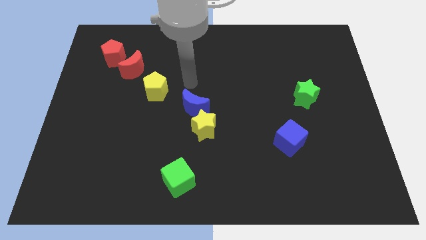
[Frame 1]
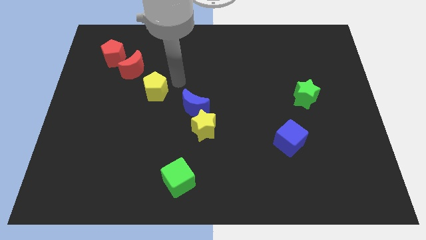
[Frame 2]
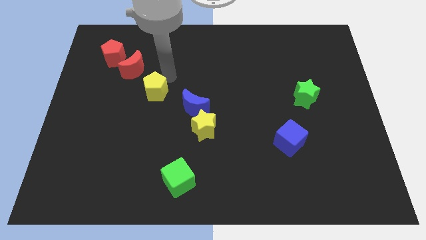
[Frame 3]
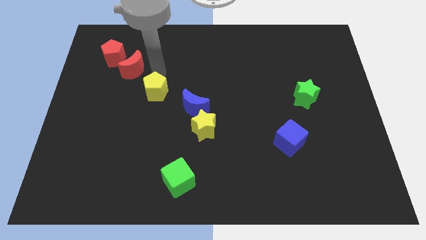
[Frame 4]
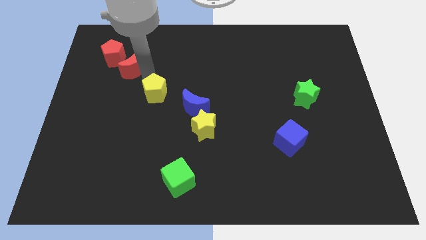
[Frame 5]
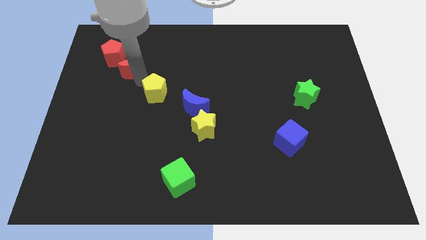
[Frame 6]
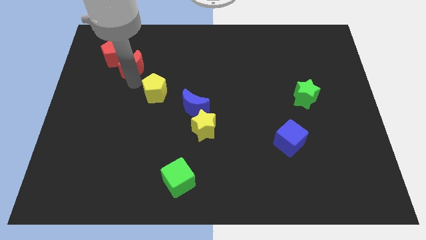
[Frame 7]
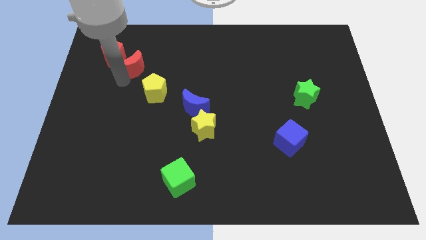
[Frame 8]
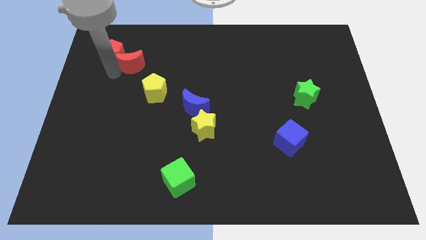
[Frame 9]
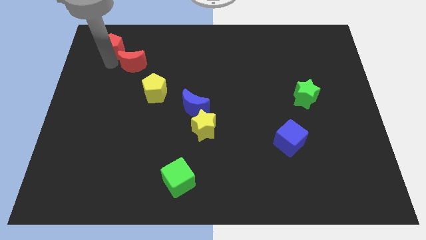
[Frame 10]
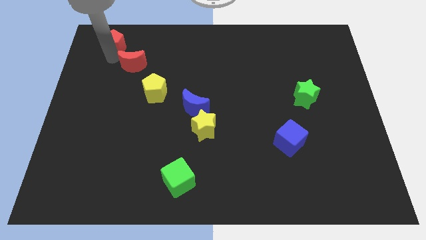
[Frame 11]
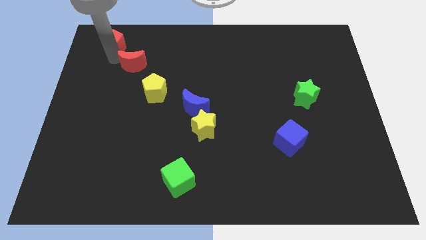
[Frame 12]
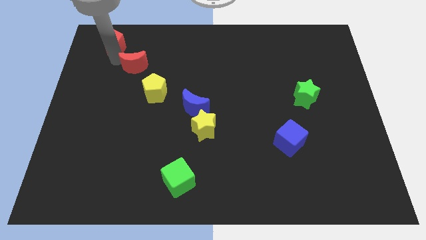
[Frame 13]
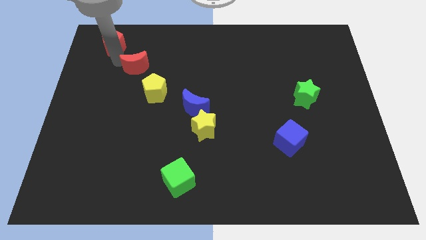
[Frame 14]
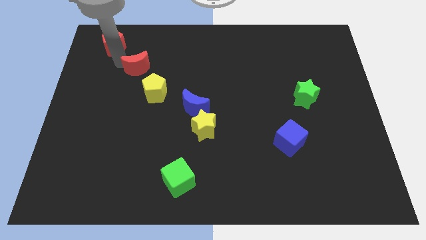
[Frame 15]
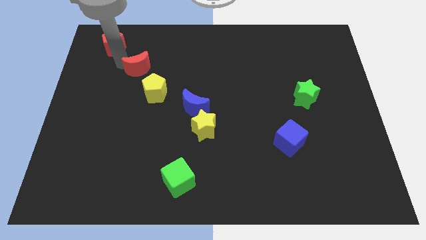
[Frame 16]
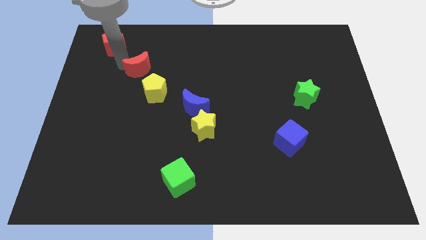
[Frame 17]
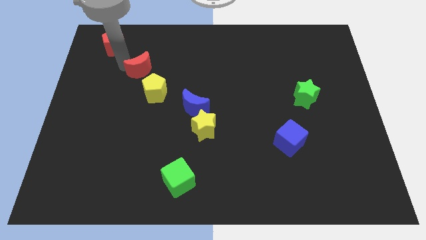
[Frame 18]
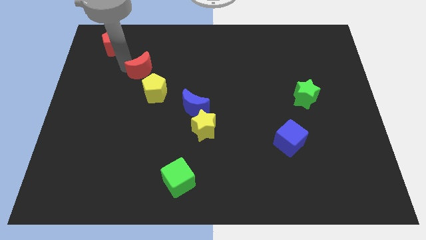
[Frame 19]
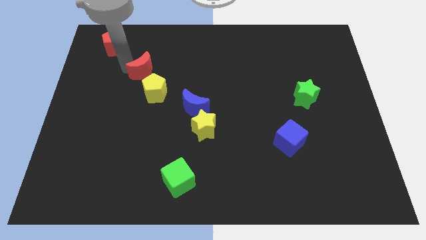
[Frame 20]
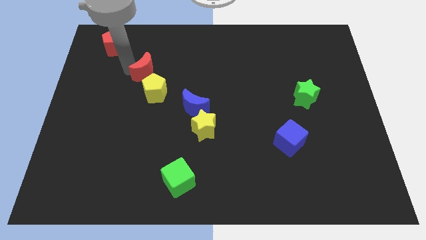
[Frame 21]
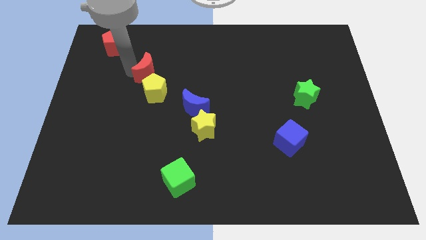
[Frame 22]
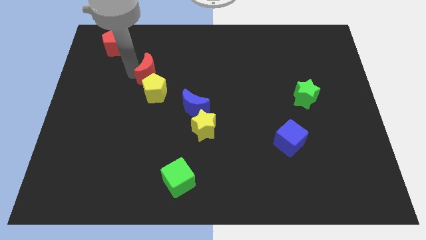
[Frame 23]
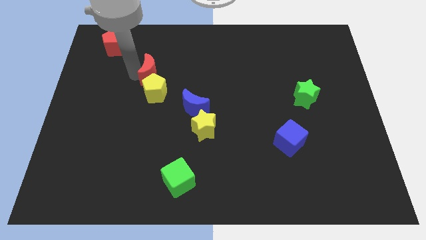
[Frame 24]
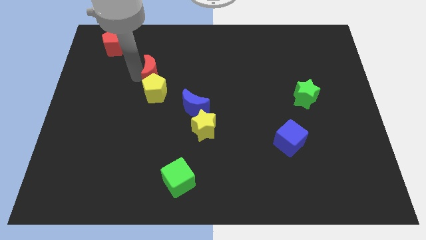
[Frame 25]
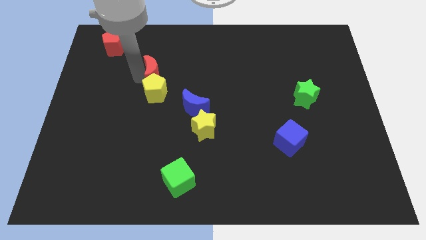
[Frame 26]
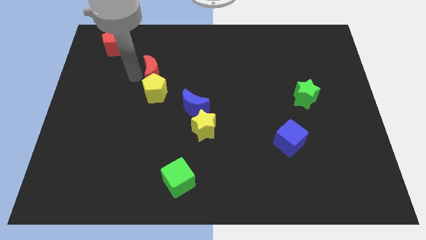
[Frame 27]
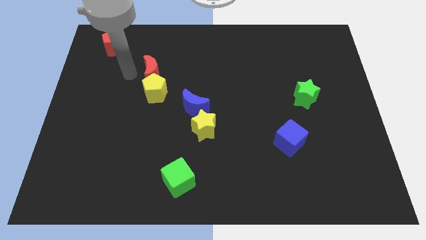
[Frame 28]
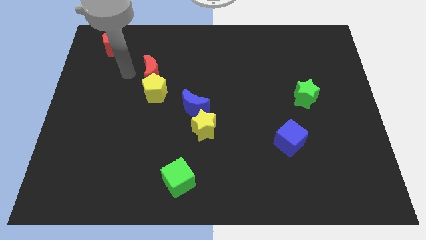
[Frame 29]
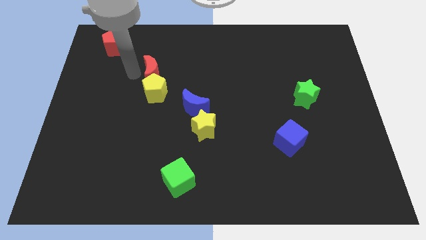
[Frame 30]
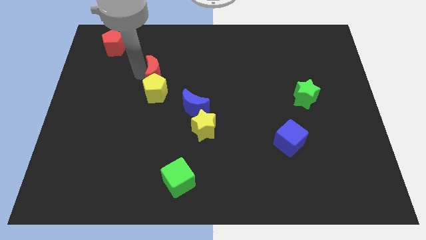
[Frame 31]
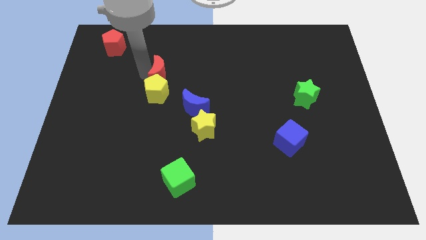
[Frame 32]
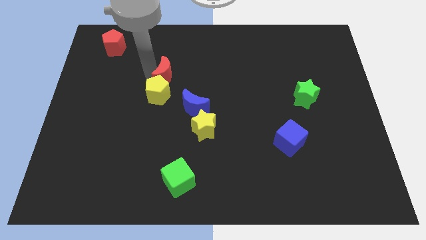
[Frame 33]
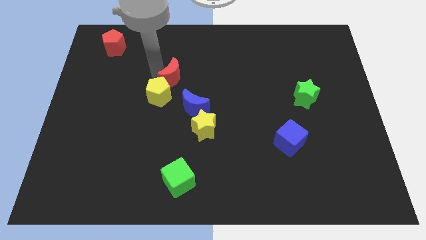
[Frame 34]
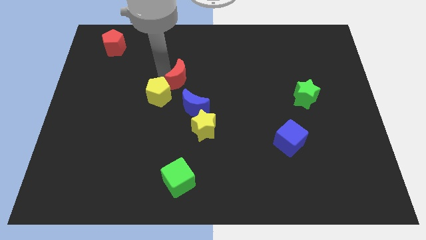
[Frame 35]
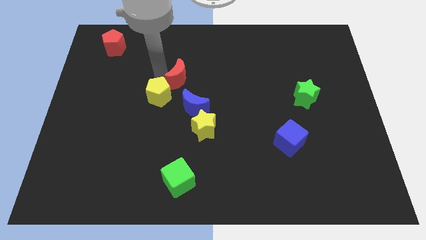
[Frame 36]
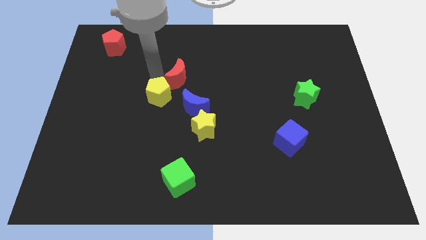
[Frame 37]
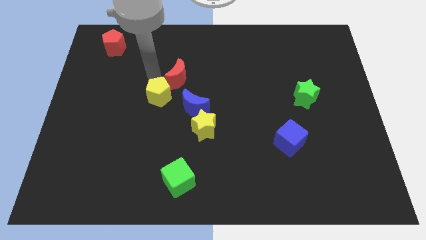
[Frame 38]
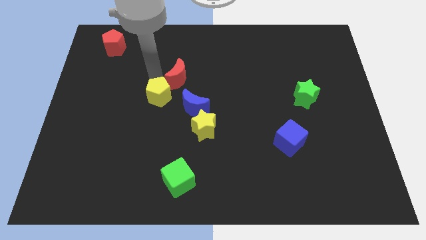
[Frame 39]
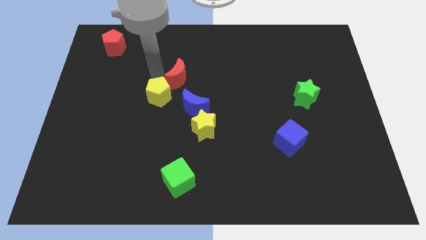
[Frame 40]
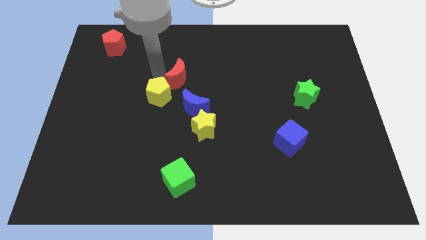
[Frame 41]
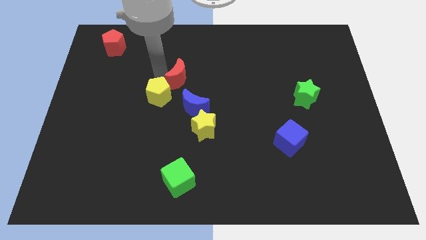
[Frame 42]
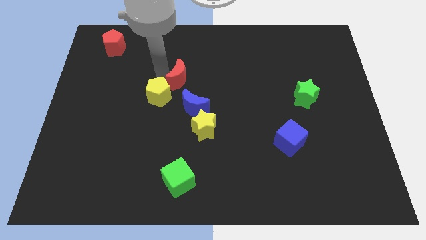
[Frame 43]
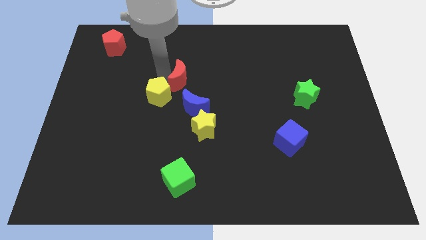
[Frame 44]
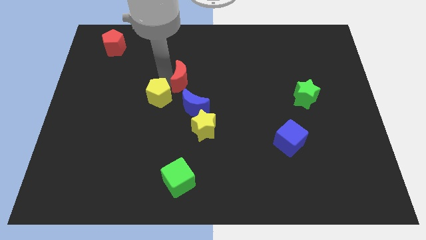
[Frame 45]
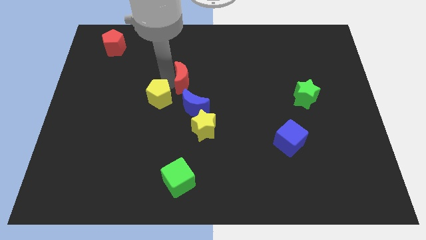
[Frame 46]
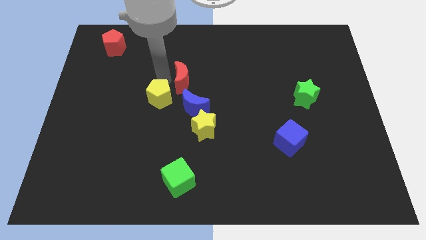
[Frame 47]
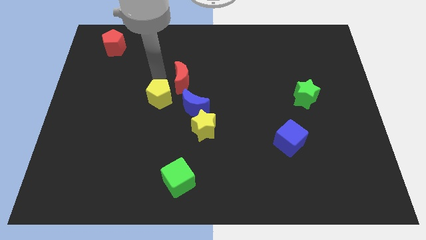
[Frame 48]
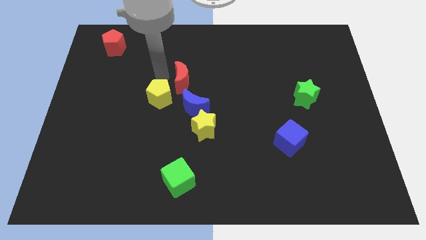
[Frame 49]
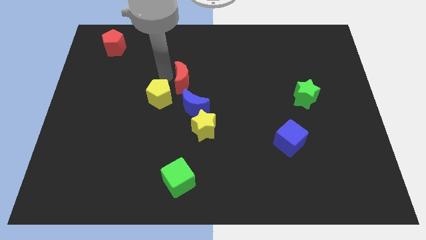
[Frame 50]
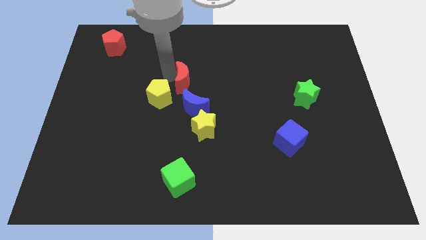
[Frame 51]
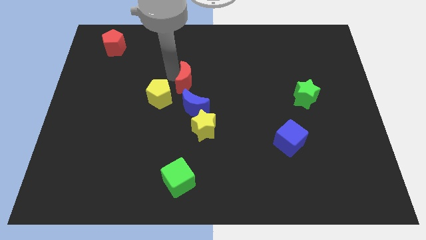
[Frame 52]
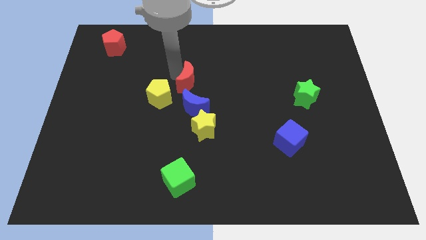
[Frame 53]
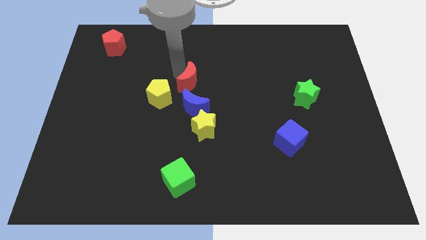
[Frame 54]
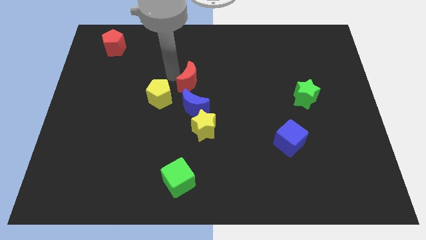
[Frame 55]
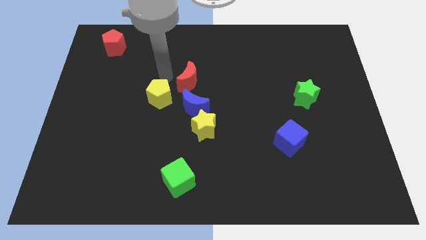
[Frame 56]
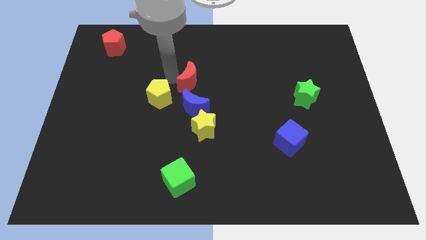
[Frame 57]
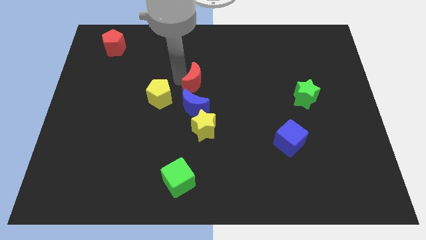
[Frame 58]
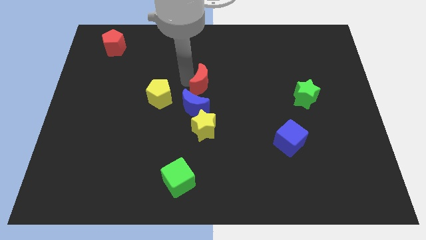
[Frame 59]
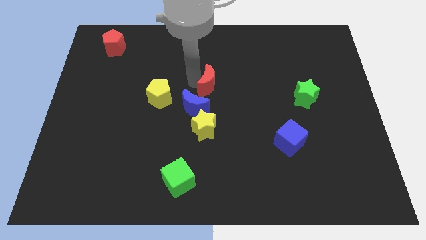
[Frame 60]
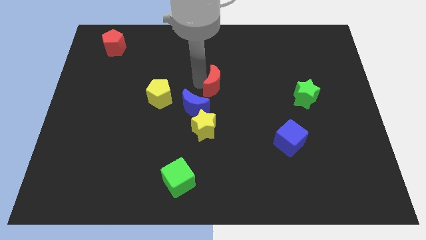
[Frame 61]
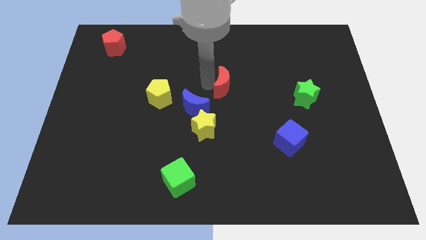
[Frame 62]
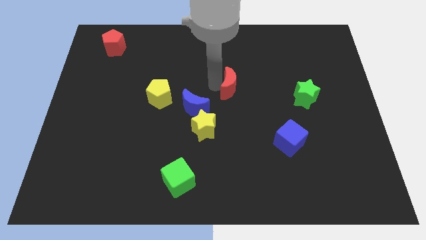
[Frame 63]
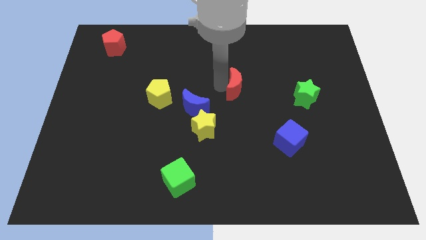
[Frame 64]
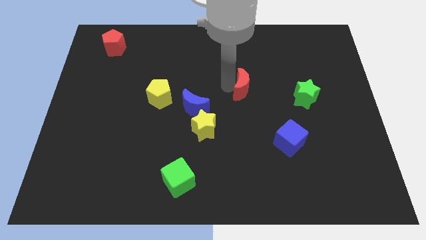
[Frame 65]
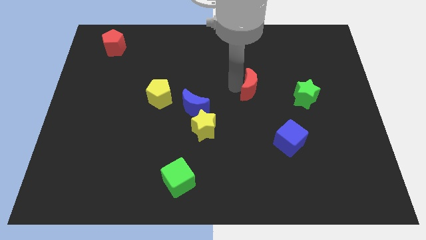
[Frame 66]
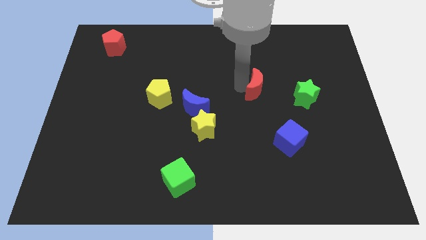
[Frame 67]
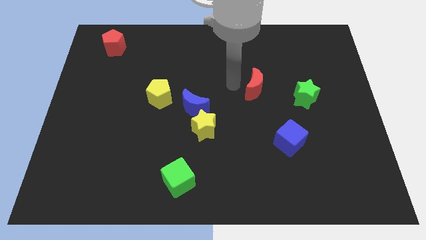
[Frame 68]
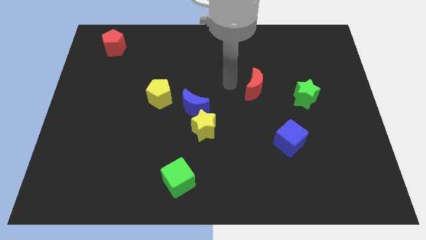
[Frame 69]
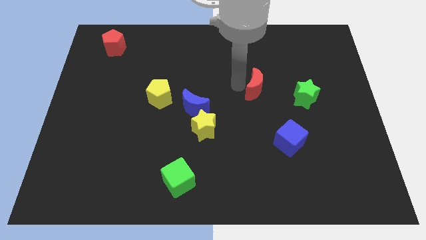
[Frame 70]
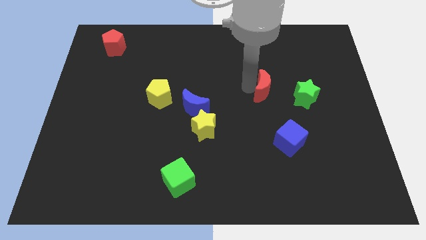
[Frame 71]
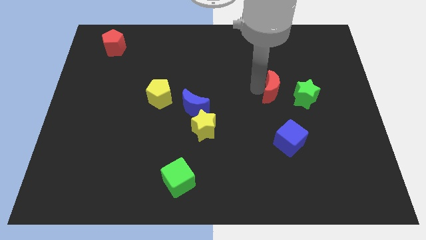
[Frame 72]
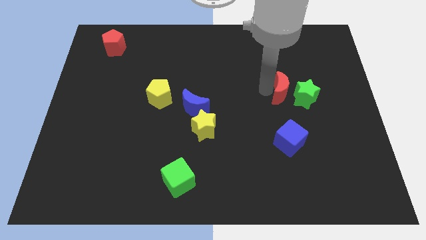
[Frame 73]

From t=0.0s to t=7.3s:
put the red moon to the green star

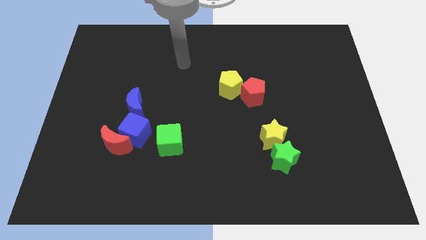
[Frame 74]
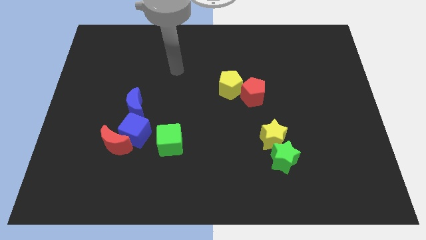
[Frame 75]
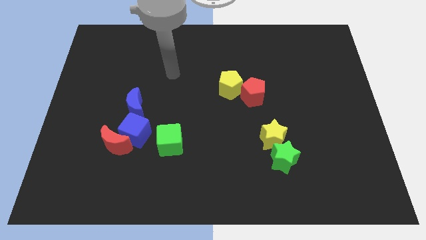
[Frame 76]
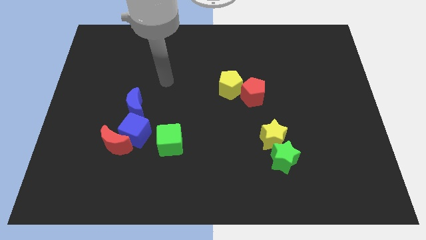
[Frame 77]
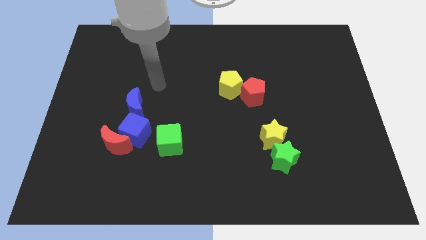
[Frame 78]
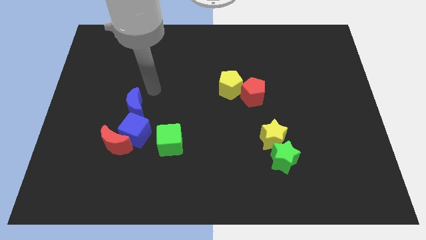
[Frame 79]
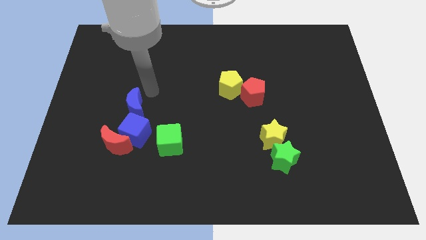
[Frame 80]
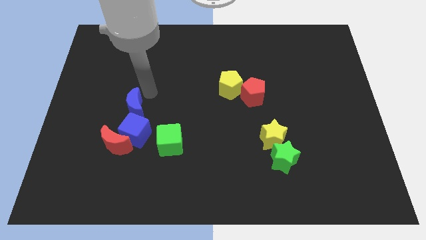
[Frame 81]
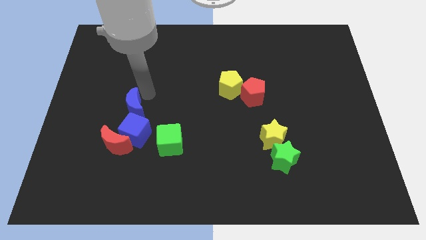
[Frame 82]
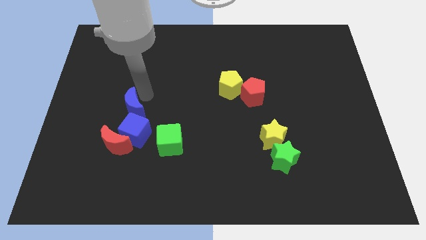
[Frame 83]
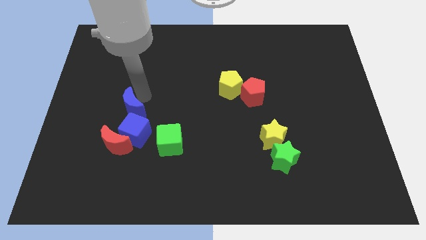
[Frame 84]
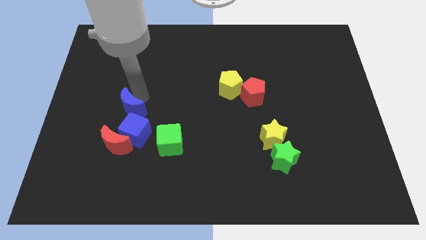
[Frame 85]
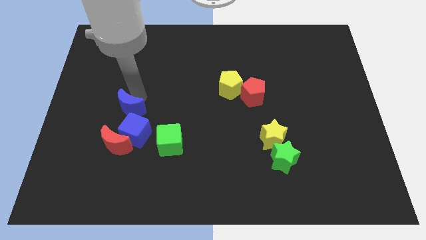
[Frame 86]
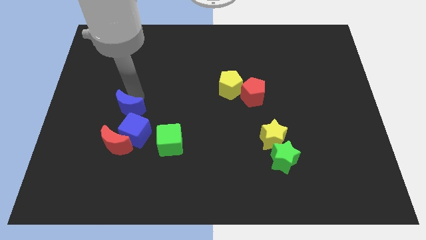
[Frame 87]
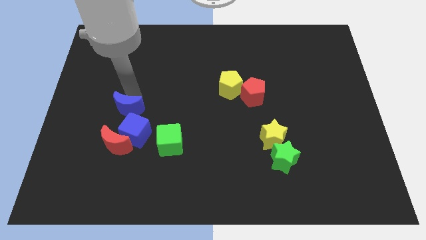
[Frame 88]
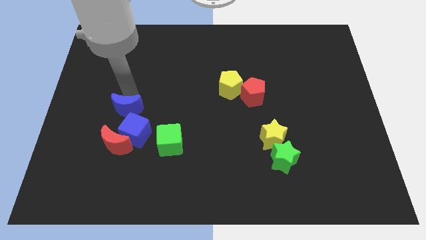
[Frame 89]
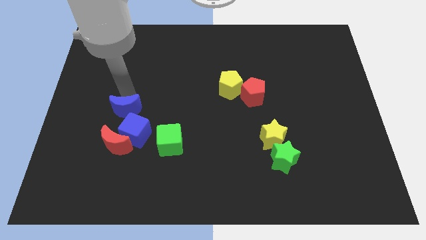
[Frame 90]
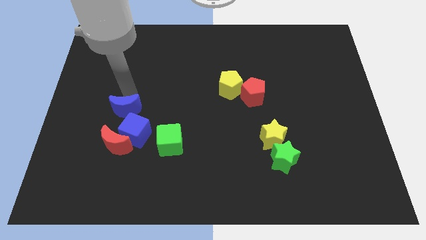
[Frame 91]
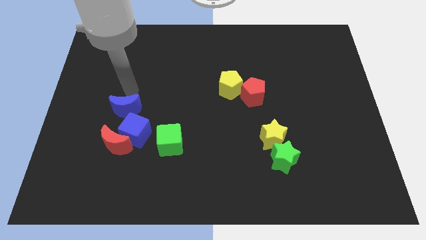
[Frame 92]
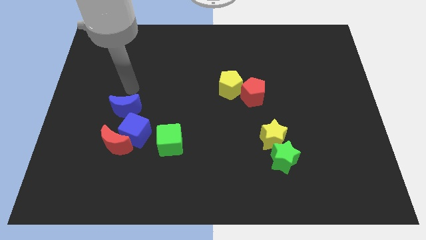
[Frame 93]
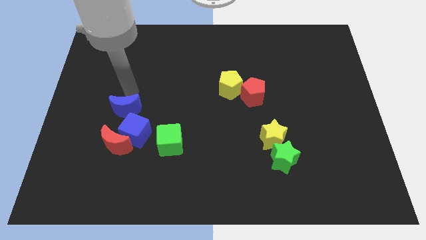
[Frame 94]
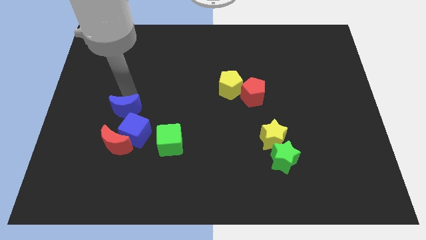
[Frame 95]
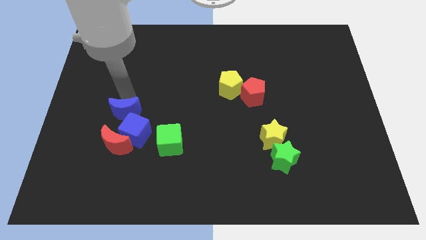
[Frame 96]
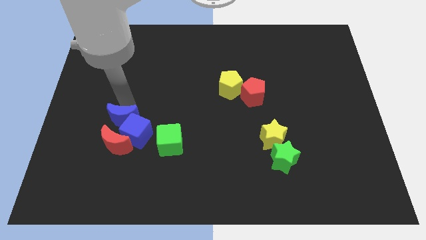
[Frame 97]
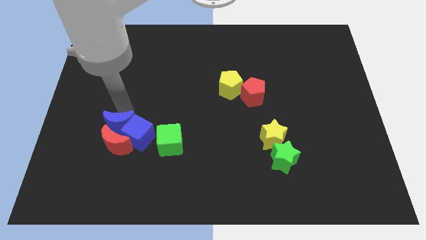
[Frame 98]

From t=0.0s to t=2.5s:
put the blue moon towards the red moon
